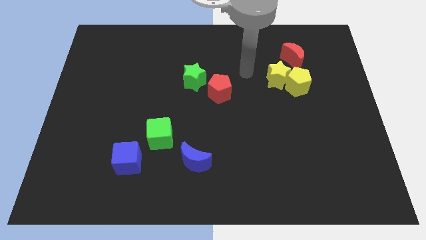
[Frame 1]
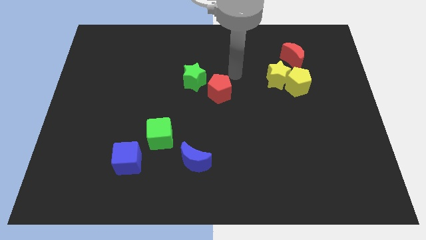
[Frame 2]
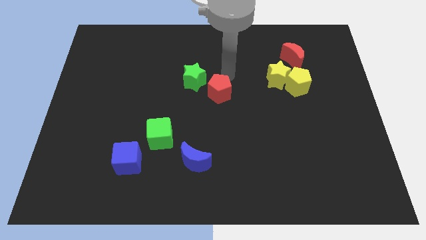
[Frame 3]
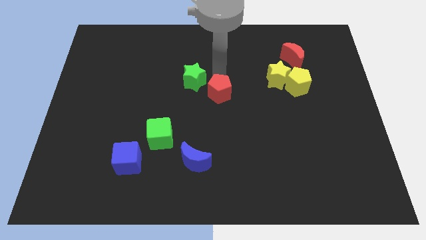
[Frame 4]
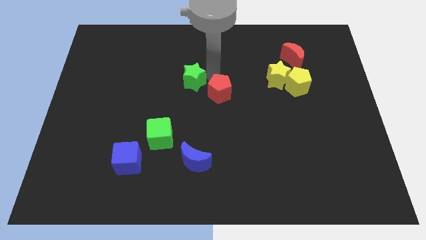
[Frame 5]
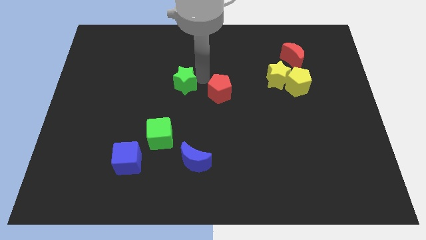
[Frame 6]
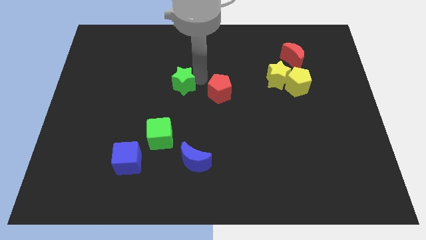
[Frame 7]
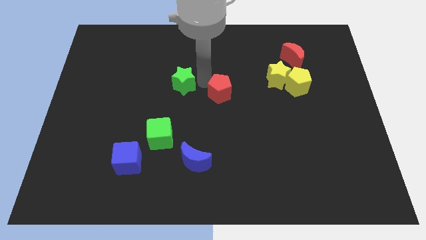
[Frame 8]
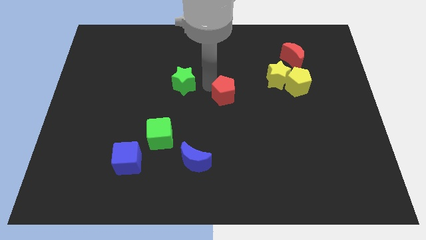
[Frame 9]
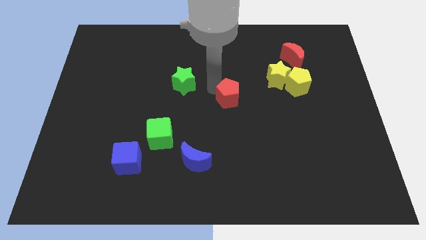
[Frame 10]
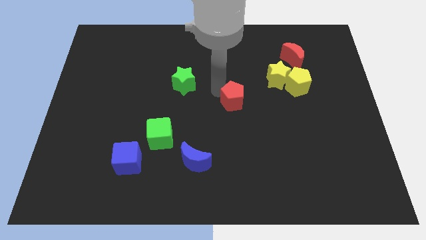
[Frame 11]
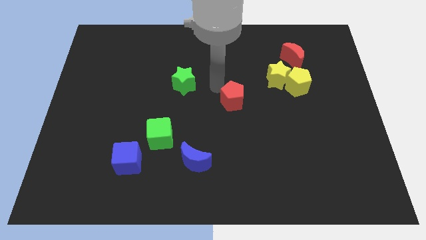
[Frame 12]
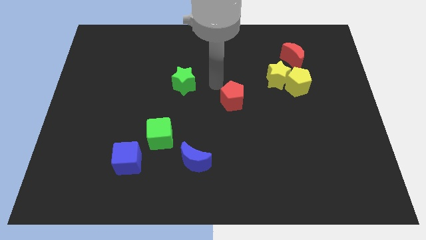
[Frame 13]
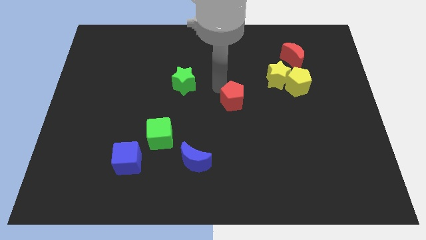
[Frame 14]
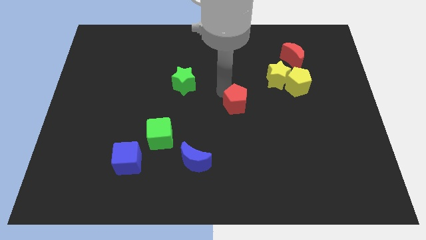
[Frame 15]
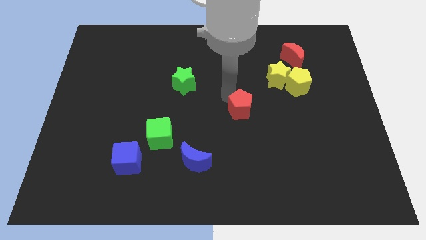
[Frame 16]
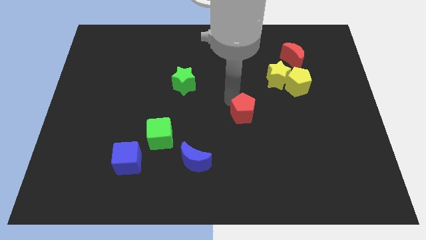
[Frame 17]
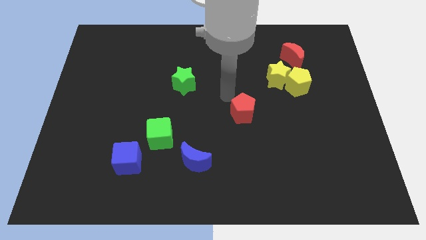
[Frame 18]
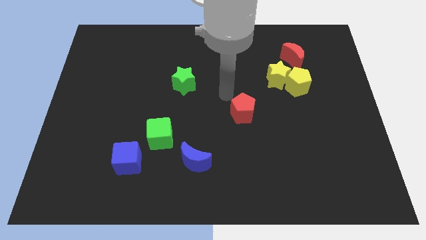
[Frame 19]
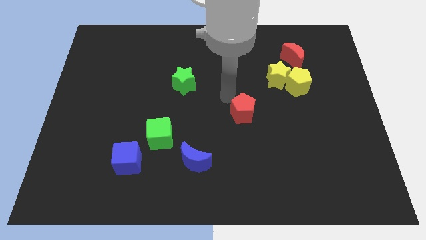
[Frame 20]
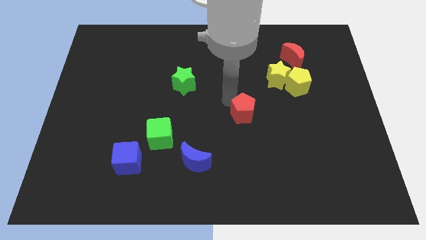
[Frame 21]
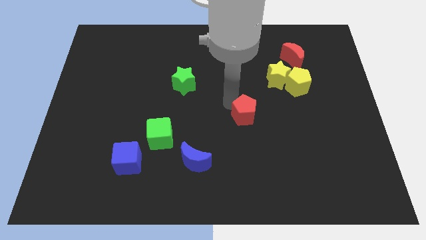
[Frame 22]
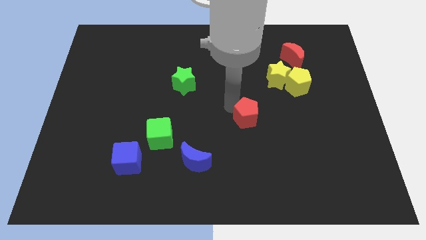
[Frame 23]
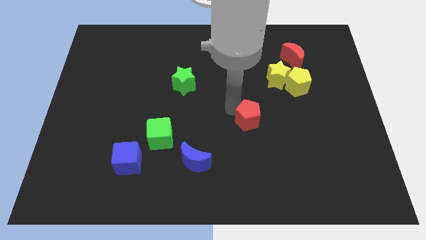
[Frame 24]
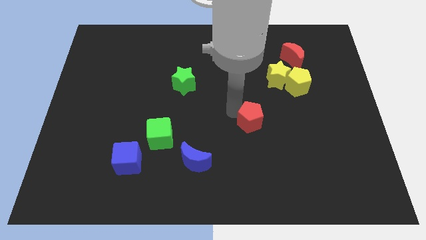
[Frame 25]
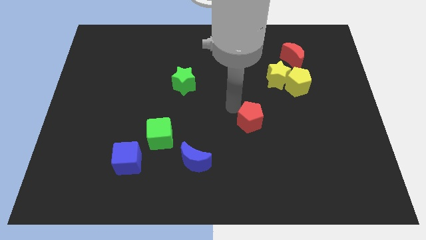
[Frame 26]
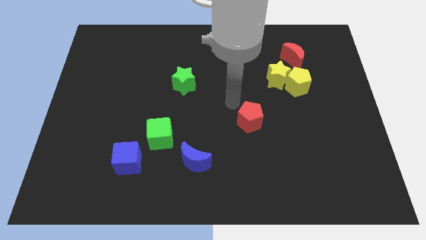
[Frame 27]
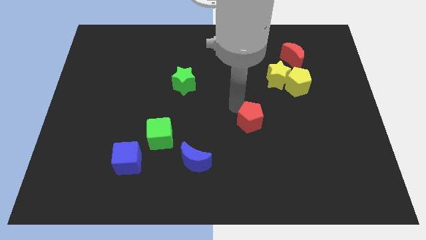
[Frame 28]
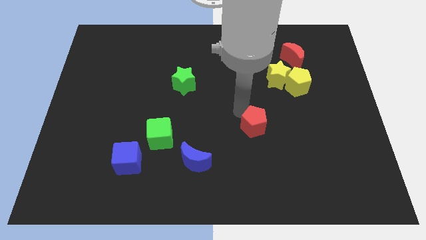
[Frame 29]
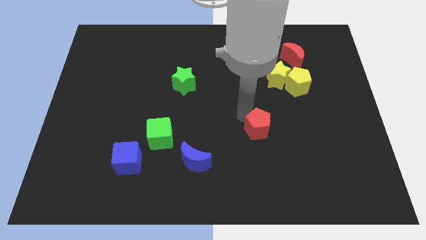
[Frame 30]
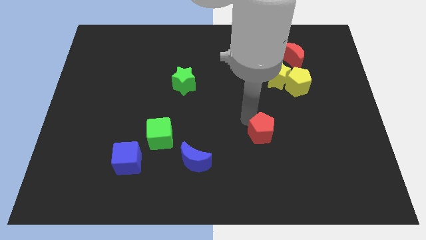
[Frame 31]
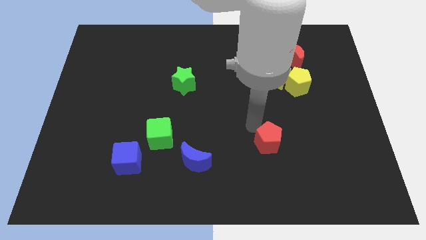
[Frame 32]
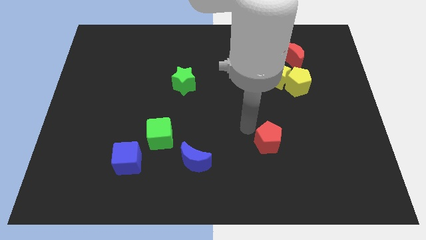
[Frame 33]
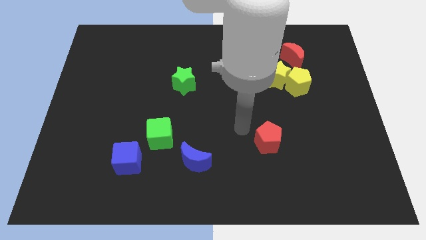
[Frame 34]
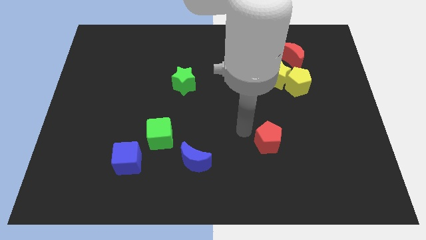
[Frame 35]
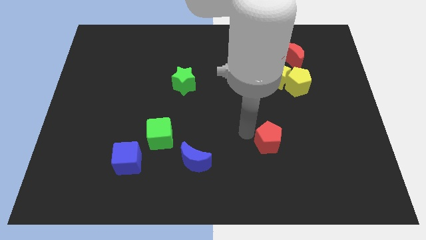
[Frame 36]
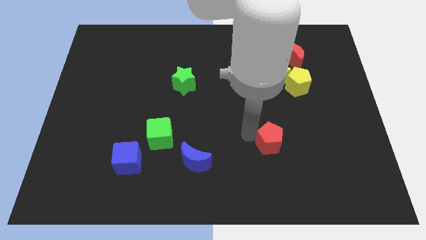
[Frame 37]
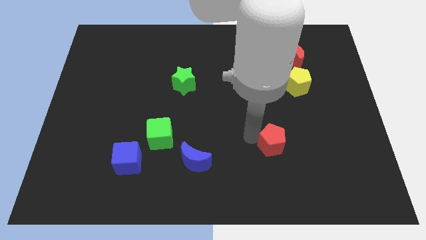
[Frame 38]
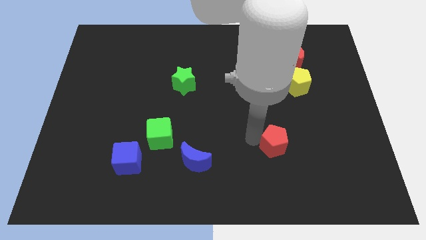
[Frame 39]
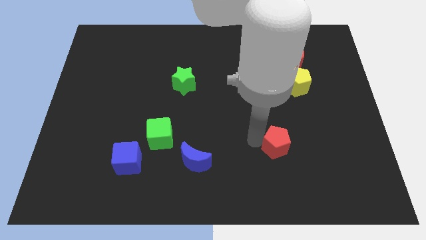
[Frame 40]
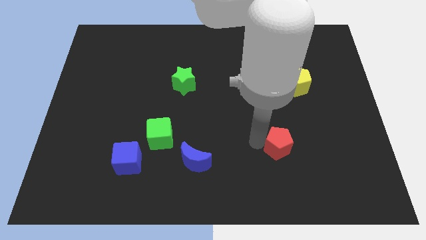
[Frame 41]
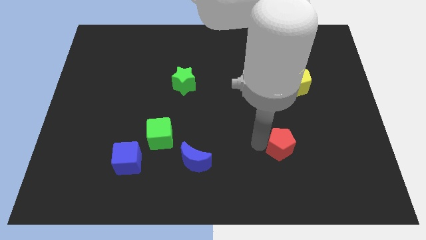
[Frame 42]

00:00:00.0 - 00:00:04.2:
slide the red pentagon downwards and to the right diagonally

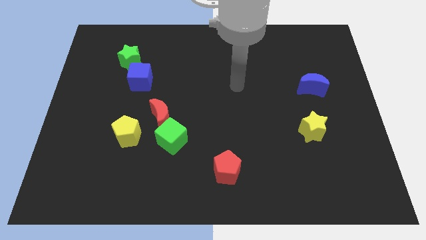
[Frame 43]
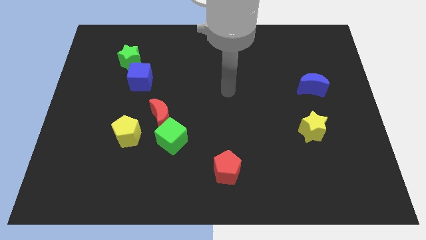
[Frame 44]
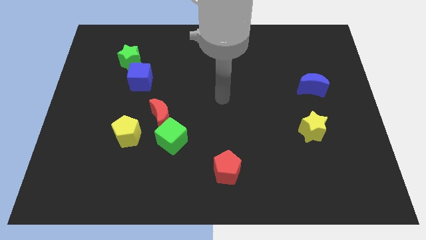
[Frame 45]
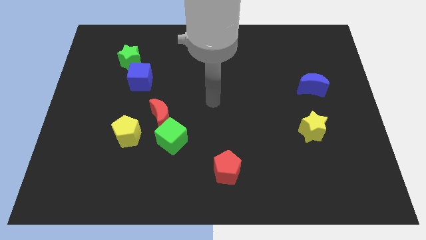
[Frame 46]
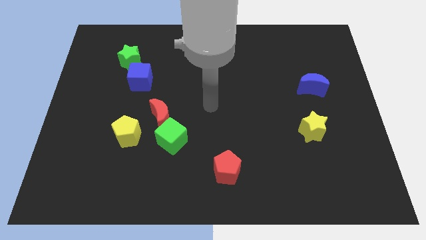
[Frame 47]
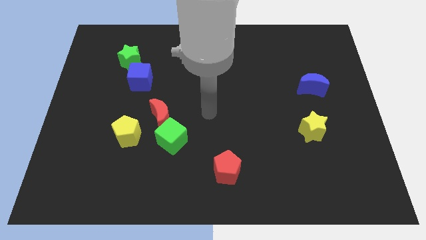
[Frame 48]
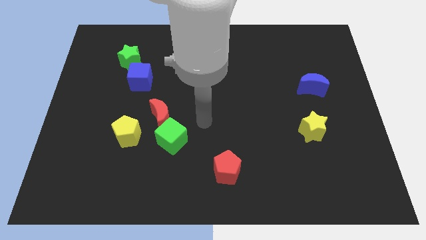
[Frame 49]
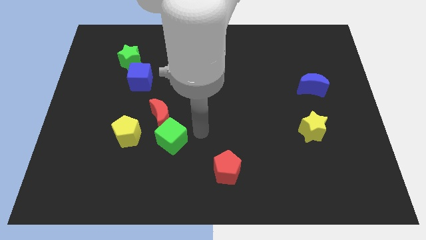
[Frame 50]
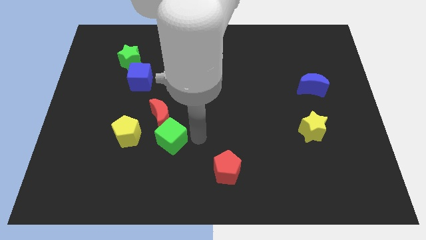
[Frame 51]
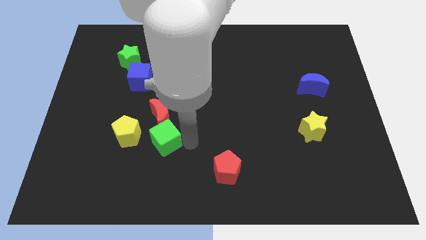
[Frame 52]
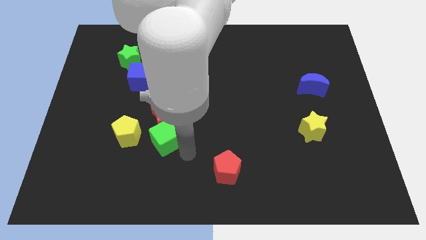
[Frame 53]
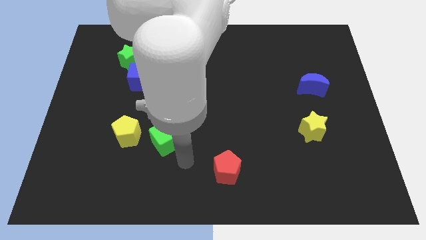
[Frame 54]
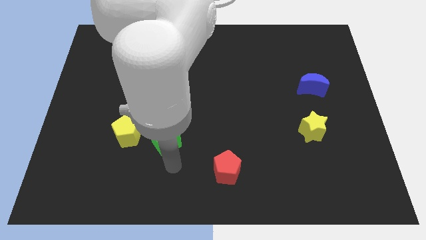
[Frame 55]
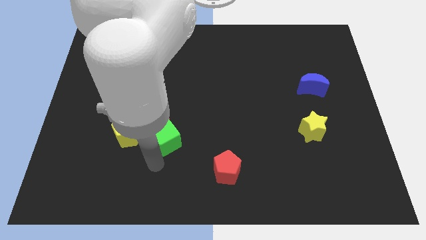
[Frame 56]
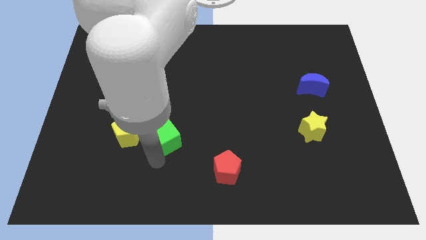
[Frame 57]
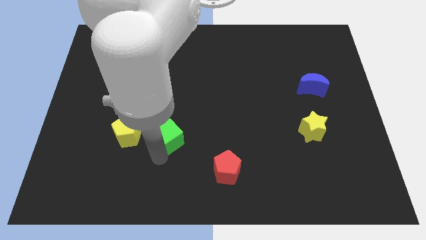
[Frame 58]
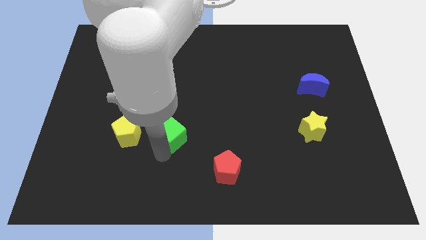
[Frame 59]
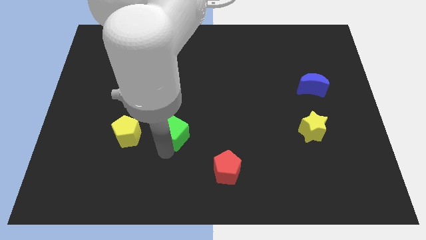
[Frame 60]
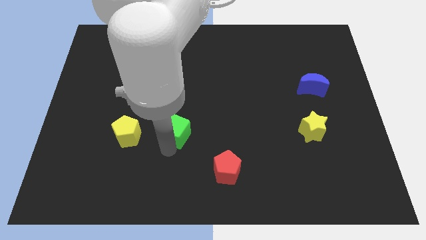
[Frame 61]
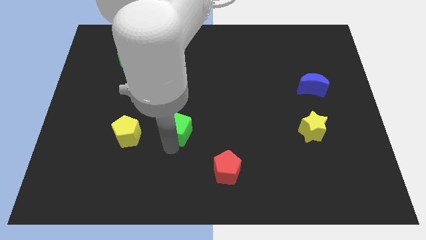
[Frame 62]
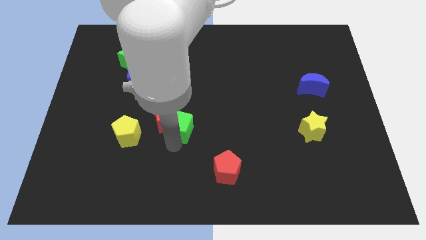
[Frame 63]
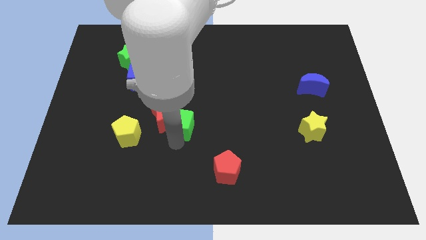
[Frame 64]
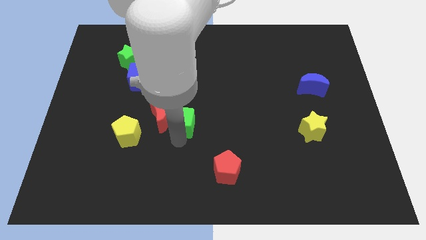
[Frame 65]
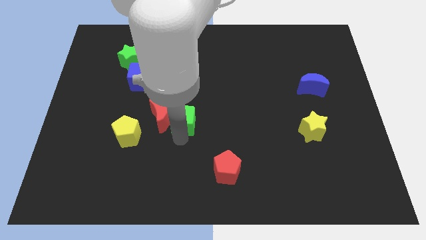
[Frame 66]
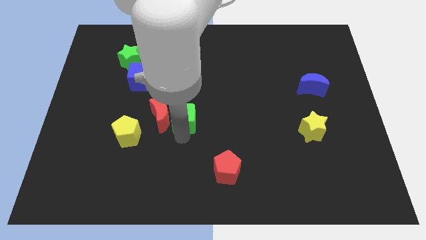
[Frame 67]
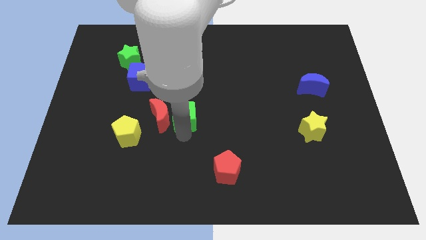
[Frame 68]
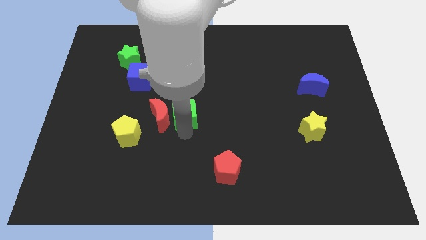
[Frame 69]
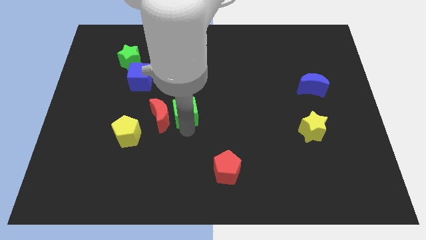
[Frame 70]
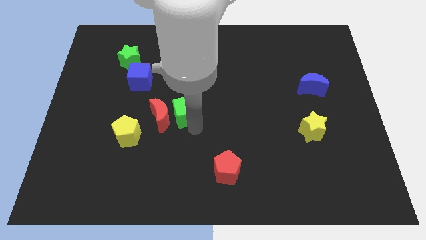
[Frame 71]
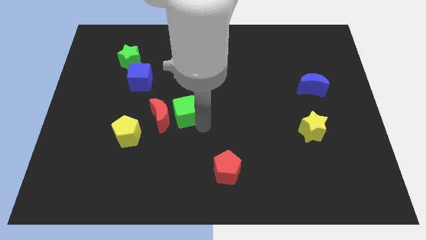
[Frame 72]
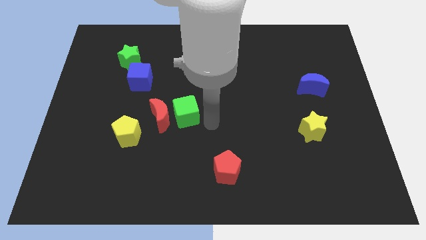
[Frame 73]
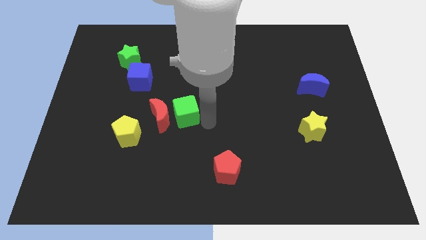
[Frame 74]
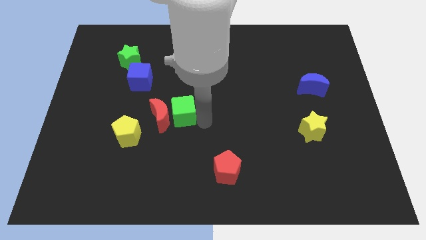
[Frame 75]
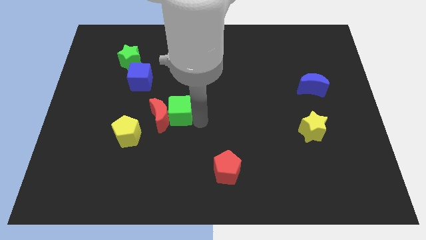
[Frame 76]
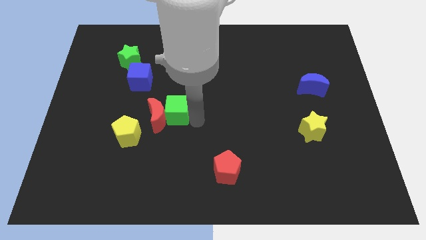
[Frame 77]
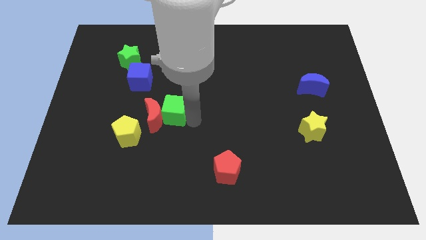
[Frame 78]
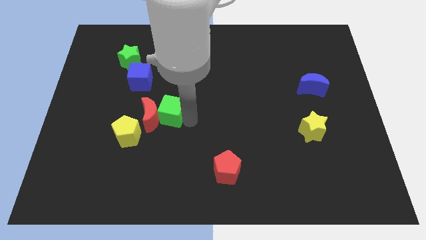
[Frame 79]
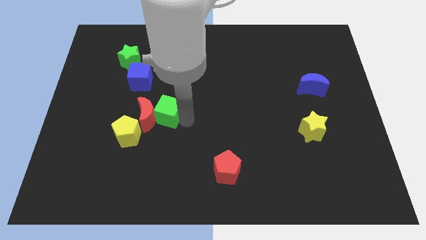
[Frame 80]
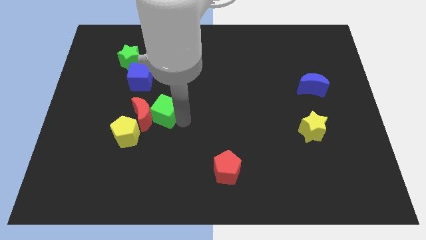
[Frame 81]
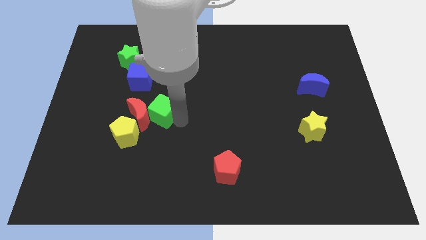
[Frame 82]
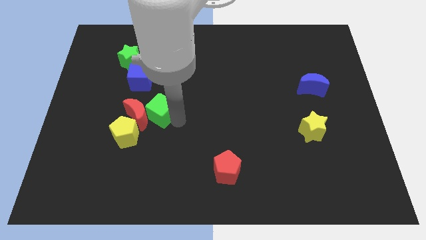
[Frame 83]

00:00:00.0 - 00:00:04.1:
slightly push the green cube up and then left
